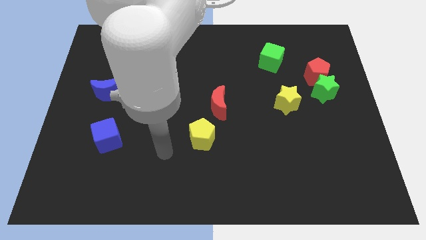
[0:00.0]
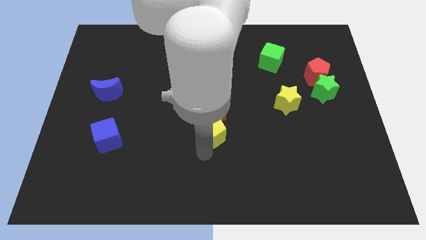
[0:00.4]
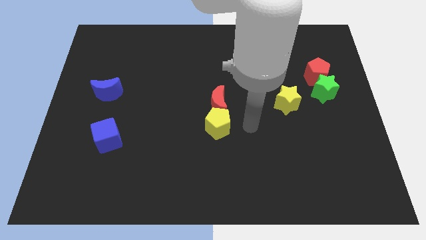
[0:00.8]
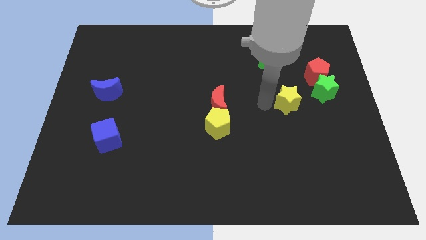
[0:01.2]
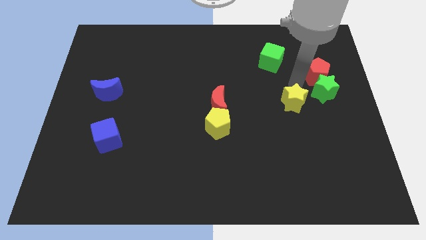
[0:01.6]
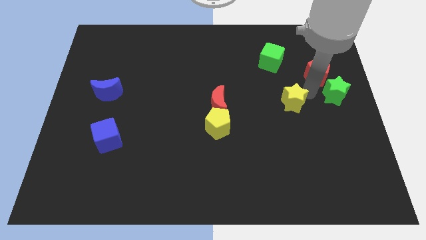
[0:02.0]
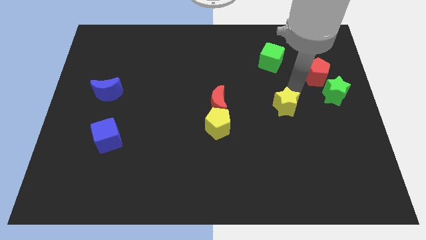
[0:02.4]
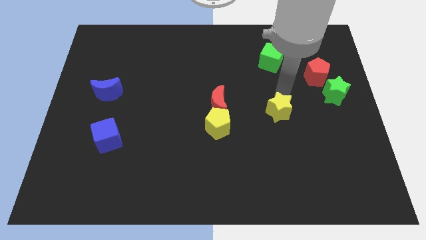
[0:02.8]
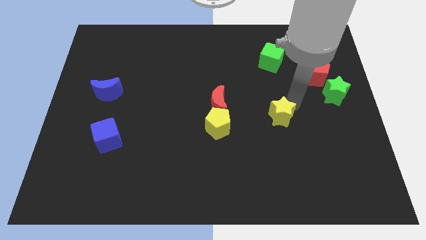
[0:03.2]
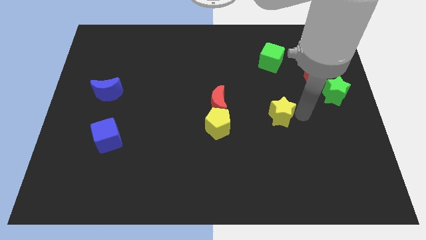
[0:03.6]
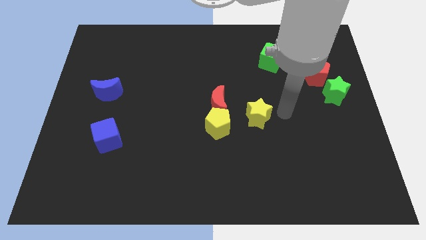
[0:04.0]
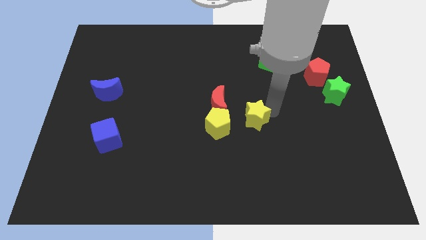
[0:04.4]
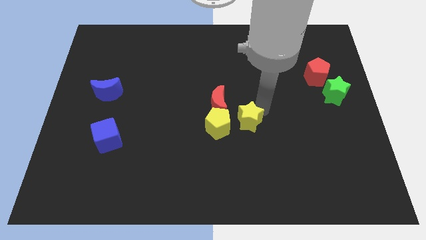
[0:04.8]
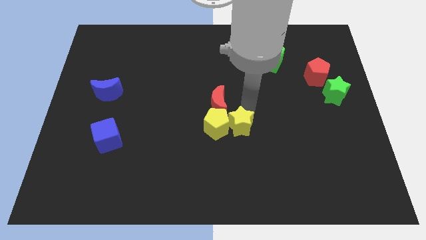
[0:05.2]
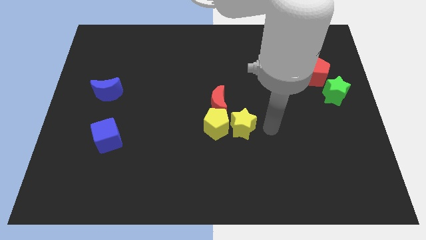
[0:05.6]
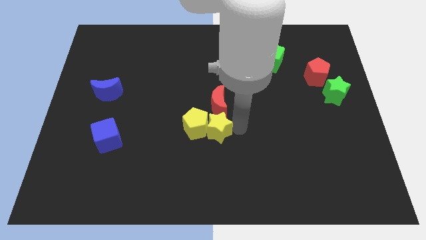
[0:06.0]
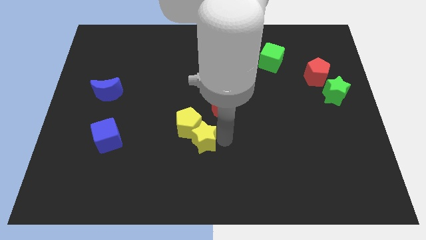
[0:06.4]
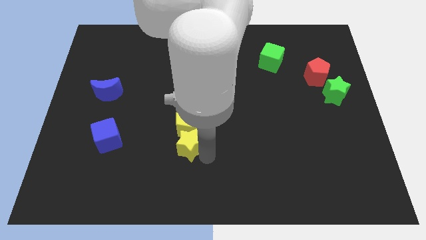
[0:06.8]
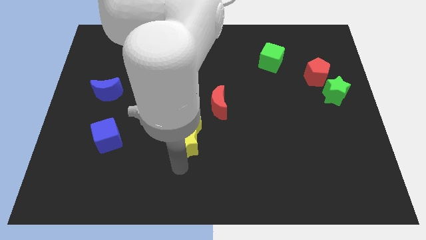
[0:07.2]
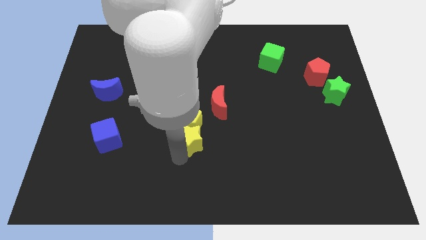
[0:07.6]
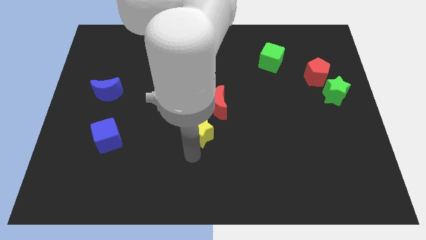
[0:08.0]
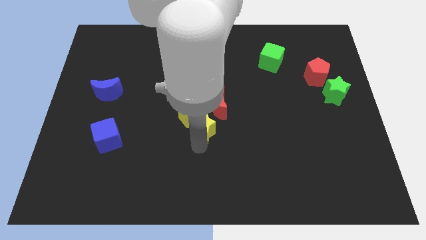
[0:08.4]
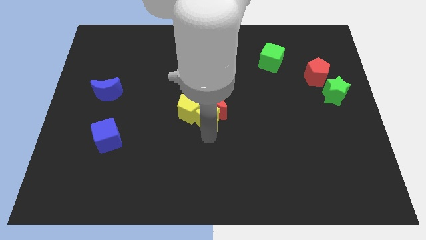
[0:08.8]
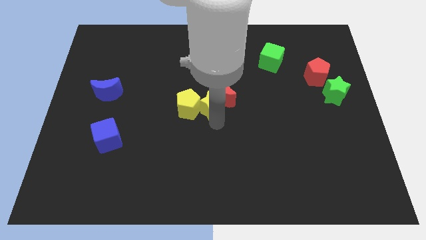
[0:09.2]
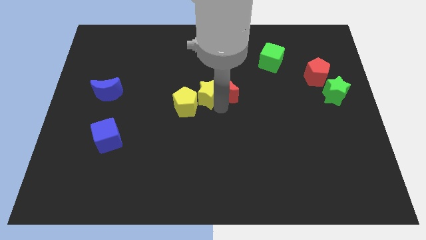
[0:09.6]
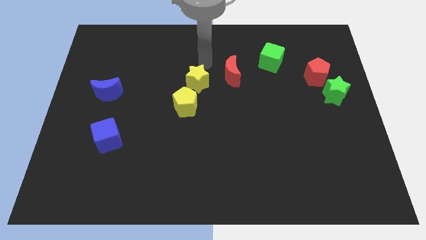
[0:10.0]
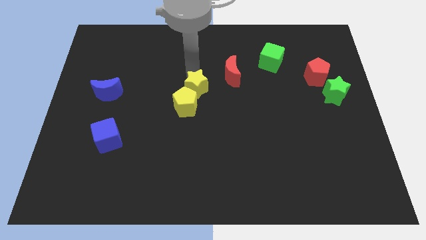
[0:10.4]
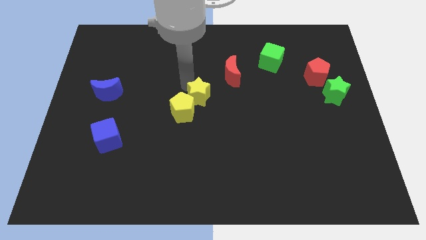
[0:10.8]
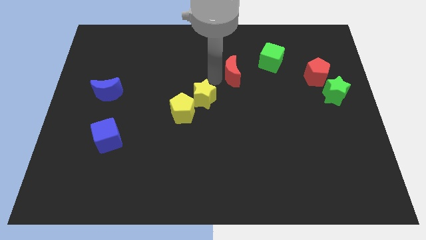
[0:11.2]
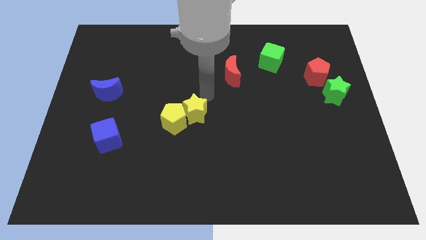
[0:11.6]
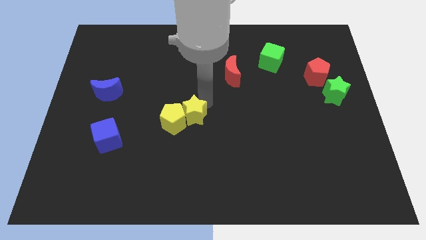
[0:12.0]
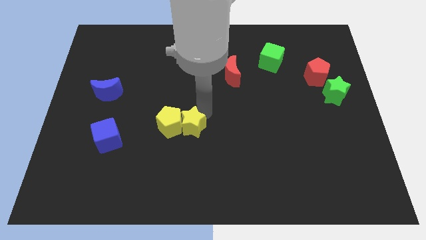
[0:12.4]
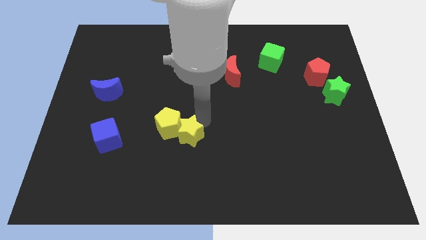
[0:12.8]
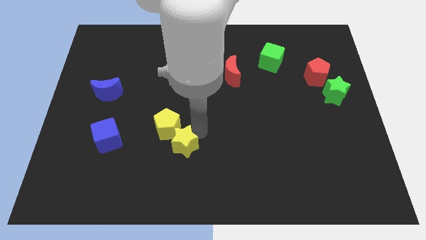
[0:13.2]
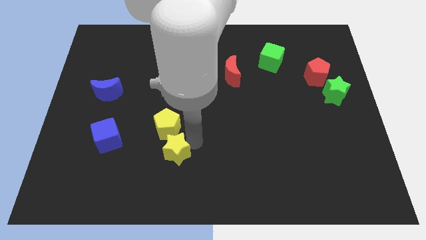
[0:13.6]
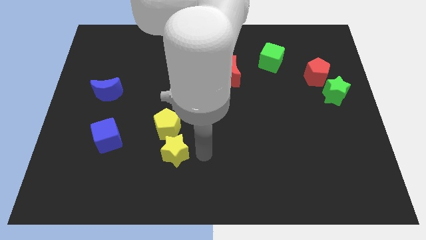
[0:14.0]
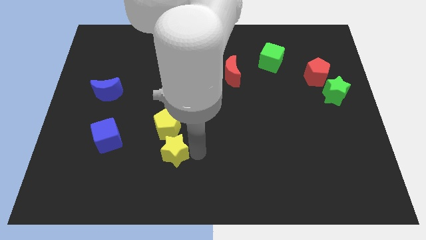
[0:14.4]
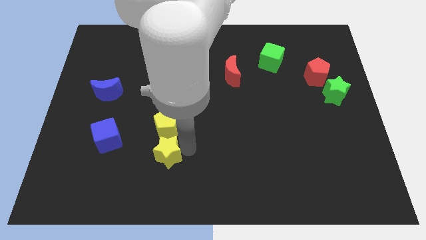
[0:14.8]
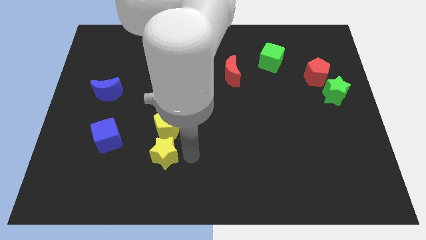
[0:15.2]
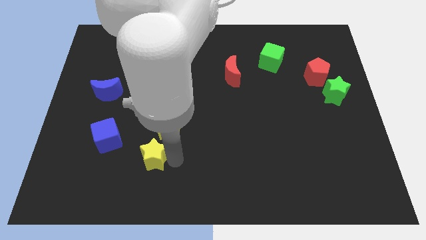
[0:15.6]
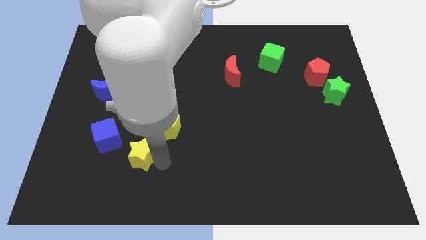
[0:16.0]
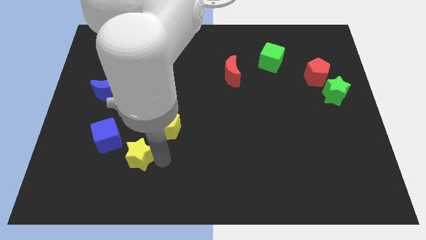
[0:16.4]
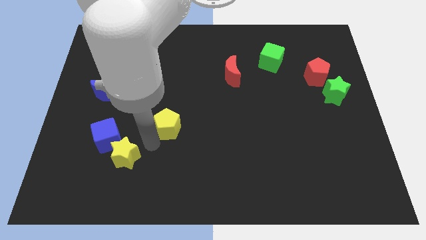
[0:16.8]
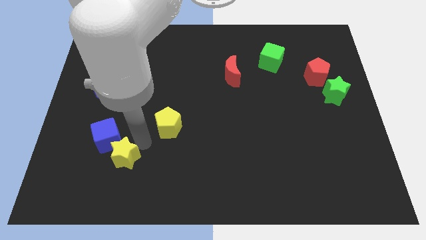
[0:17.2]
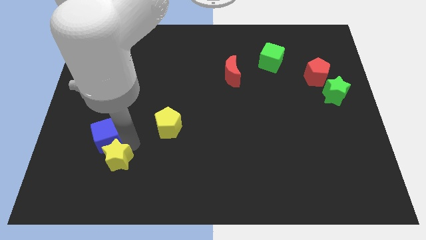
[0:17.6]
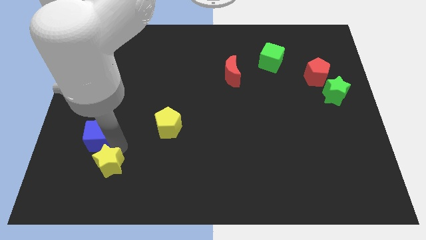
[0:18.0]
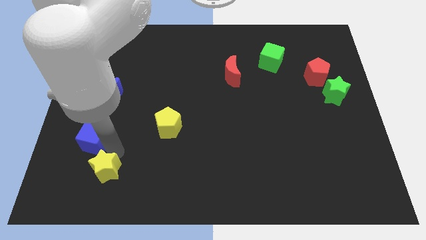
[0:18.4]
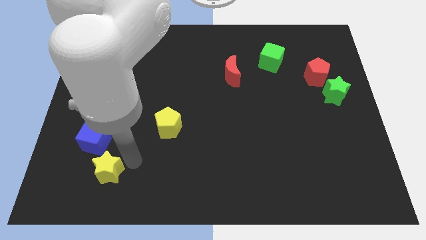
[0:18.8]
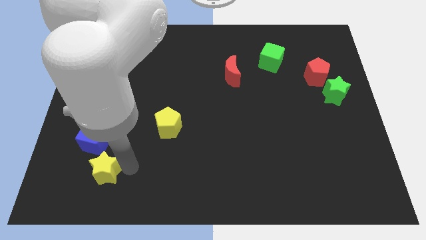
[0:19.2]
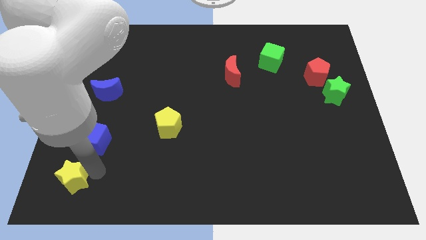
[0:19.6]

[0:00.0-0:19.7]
move the yellow star to the lower left corner

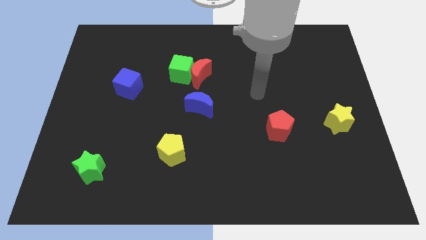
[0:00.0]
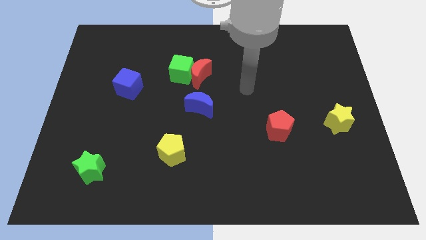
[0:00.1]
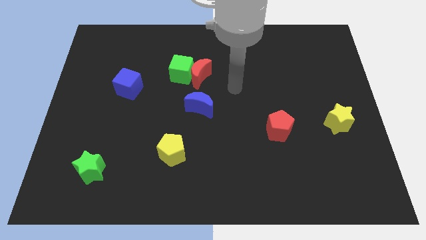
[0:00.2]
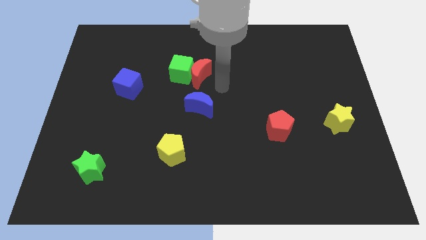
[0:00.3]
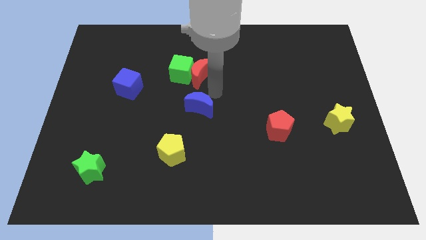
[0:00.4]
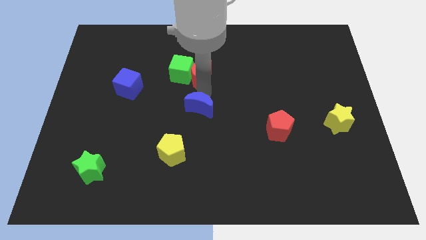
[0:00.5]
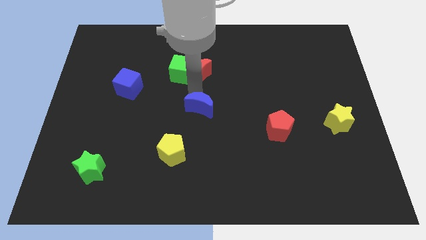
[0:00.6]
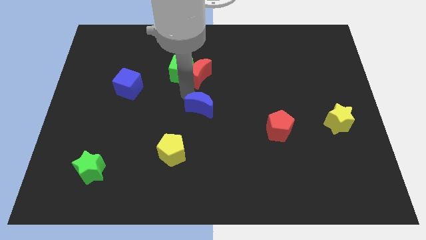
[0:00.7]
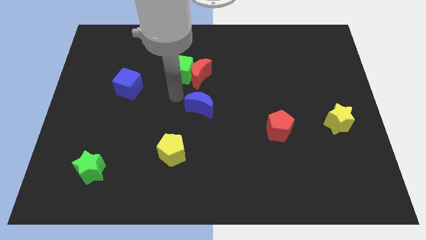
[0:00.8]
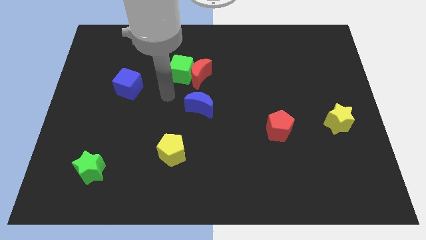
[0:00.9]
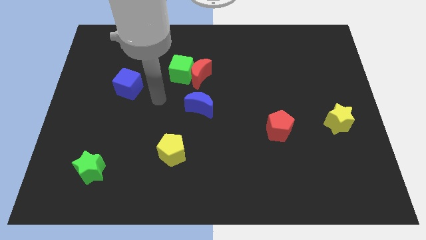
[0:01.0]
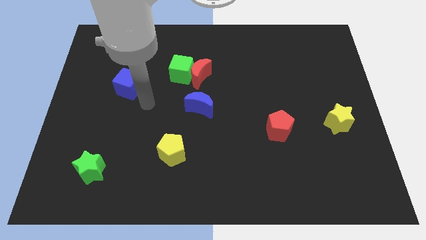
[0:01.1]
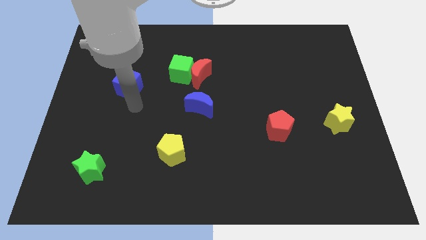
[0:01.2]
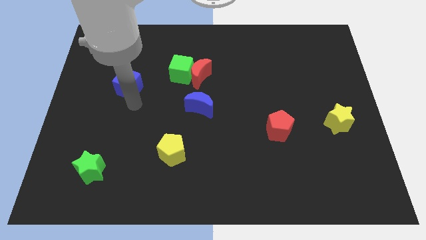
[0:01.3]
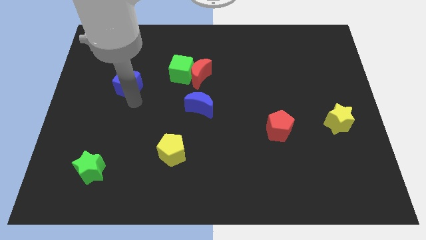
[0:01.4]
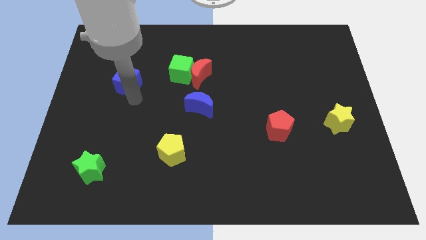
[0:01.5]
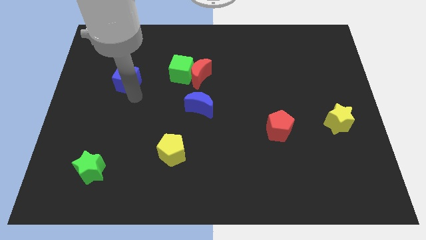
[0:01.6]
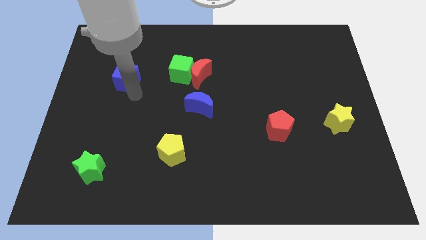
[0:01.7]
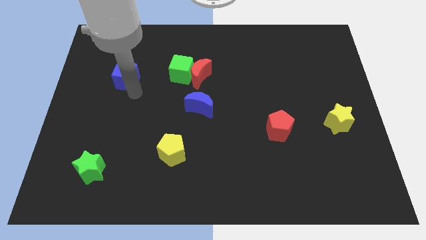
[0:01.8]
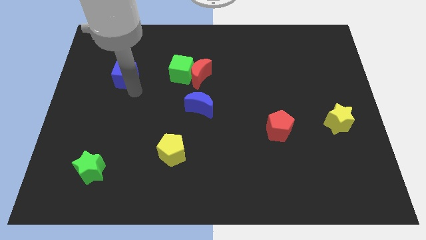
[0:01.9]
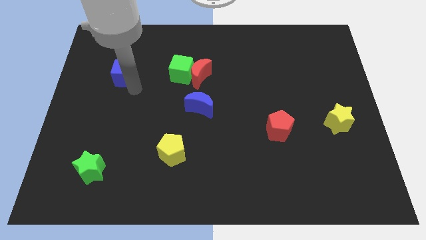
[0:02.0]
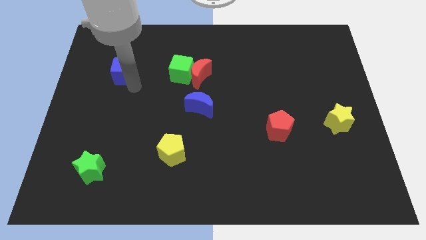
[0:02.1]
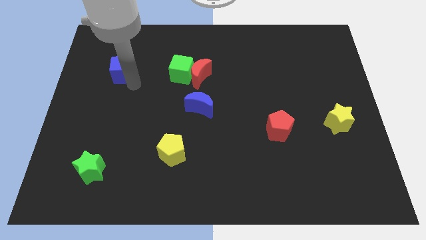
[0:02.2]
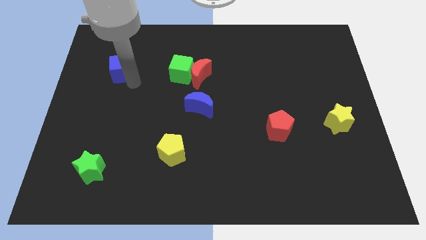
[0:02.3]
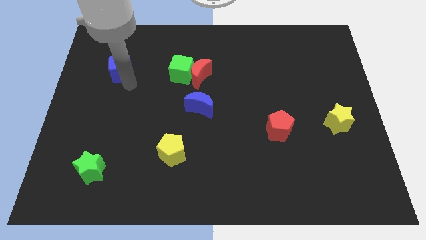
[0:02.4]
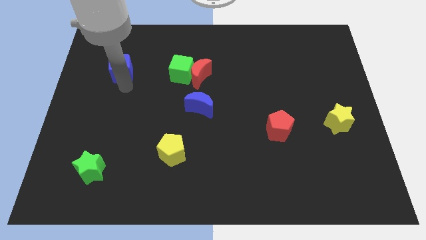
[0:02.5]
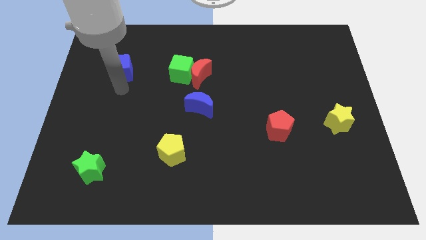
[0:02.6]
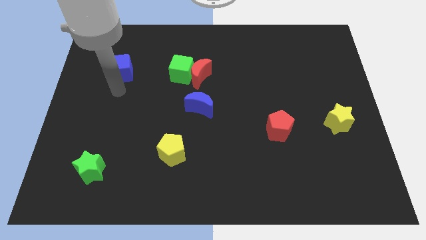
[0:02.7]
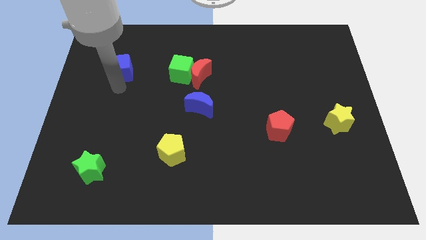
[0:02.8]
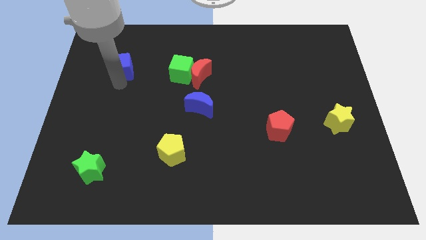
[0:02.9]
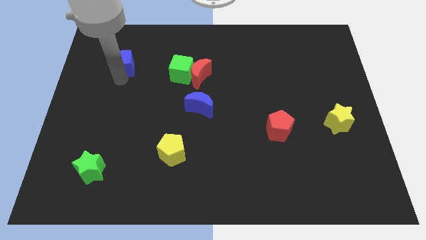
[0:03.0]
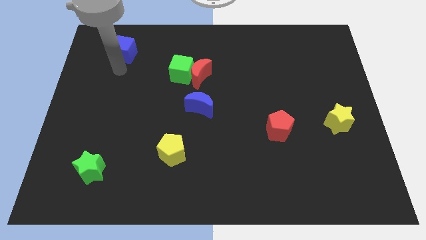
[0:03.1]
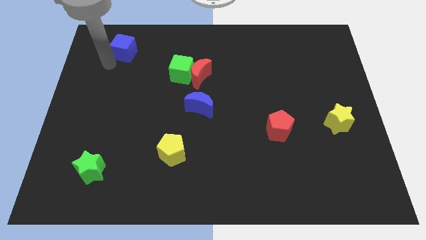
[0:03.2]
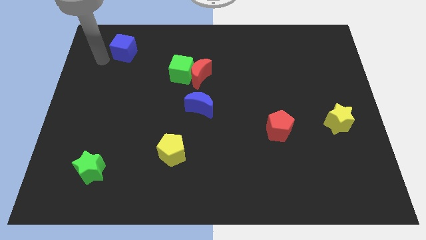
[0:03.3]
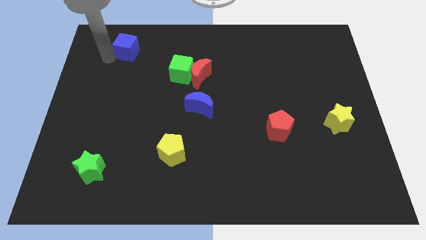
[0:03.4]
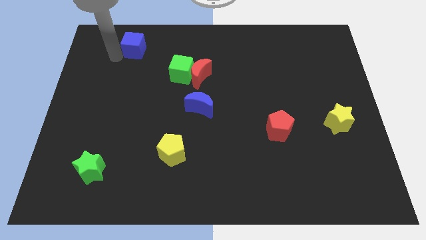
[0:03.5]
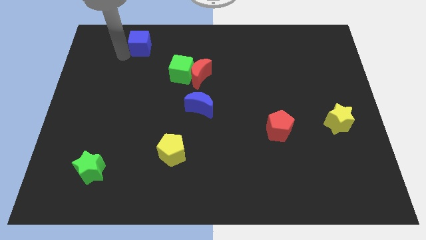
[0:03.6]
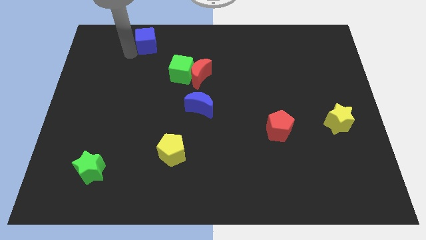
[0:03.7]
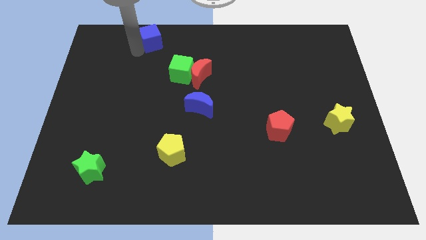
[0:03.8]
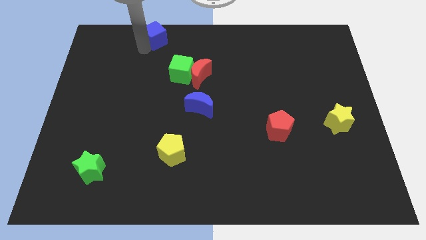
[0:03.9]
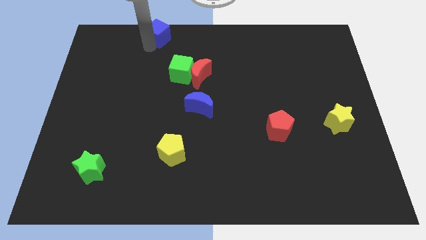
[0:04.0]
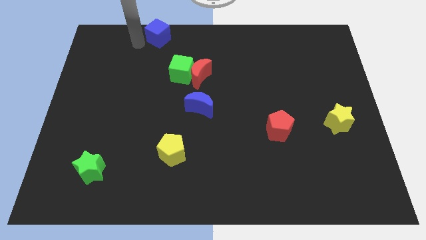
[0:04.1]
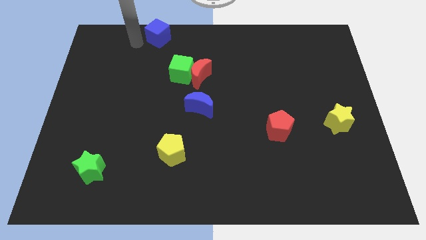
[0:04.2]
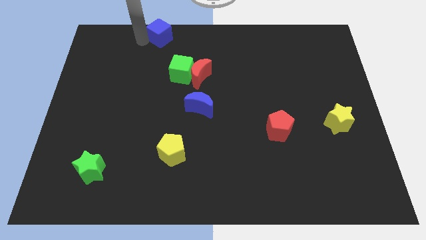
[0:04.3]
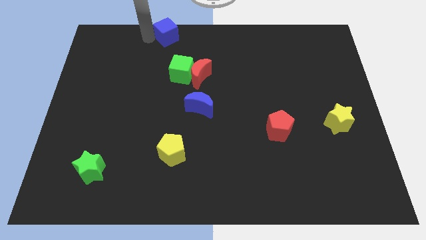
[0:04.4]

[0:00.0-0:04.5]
push the blue cube to the top side
